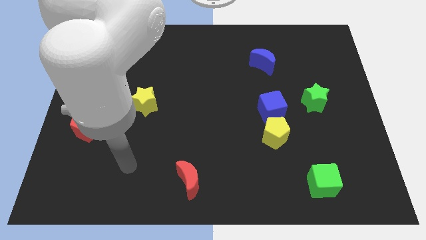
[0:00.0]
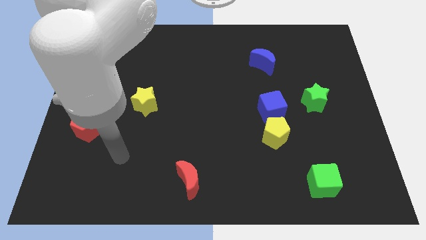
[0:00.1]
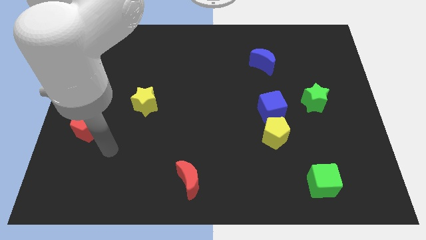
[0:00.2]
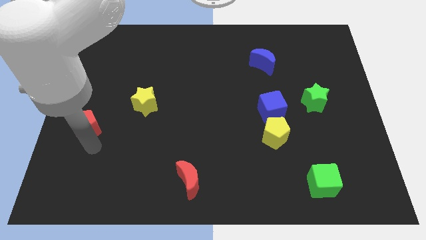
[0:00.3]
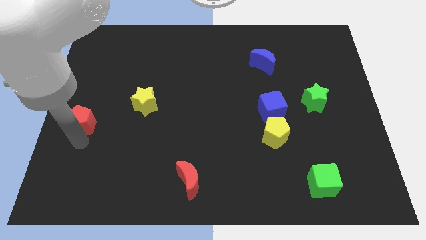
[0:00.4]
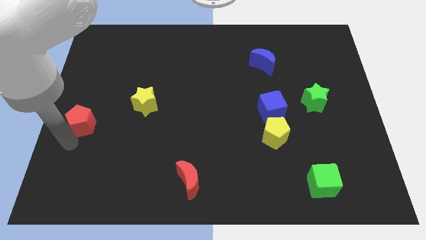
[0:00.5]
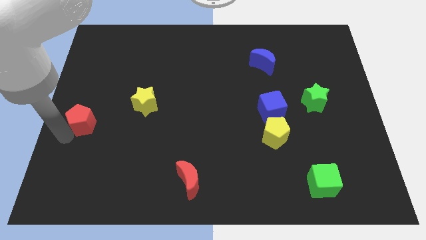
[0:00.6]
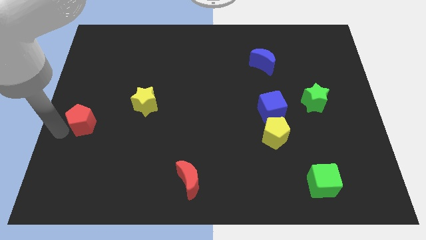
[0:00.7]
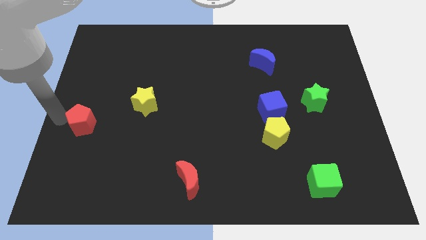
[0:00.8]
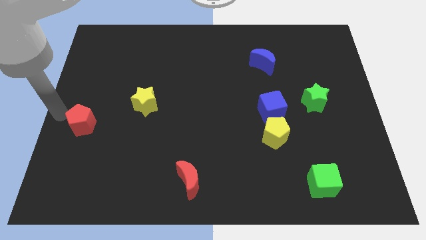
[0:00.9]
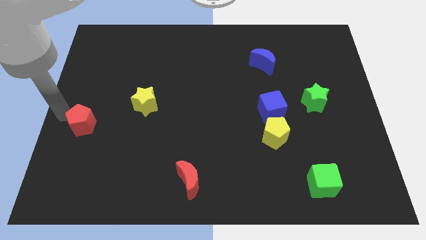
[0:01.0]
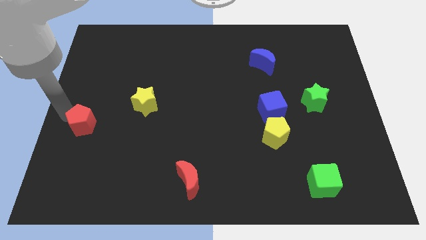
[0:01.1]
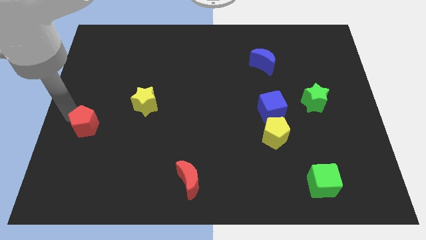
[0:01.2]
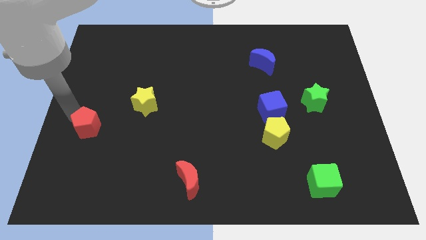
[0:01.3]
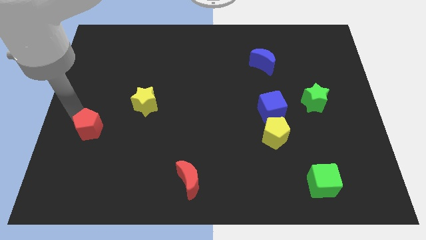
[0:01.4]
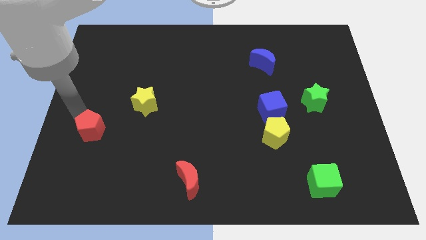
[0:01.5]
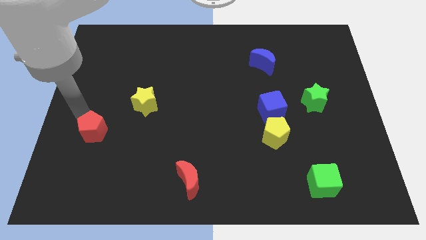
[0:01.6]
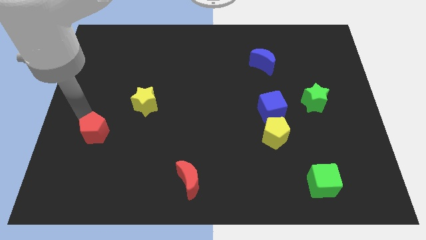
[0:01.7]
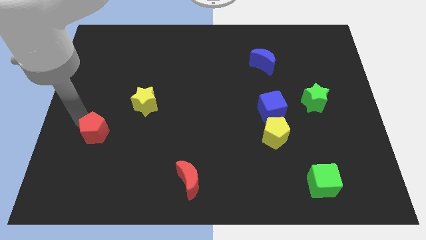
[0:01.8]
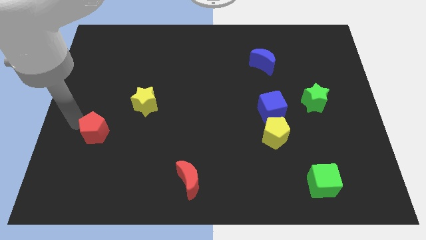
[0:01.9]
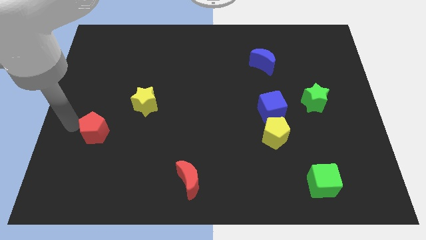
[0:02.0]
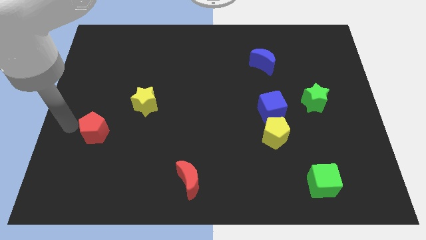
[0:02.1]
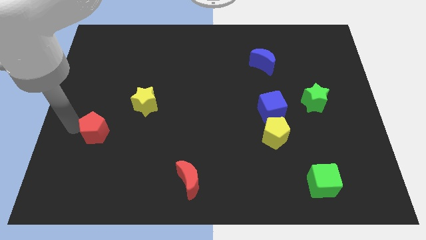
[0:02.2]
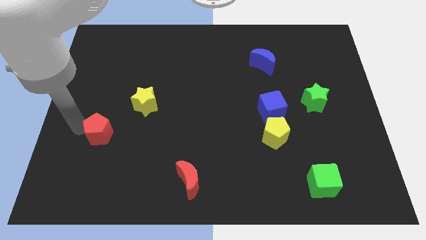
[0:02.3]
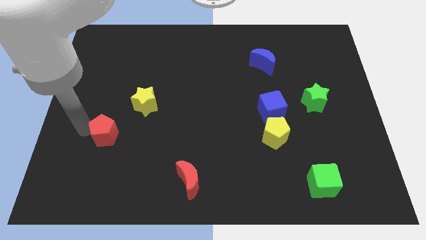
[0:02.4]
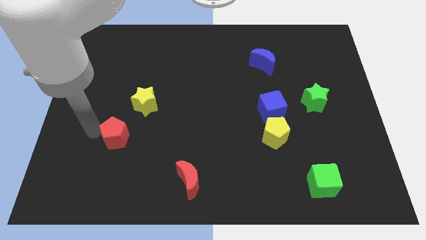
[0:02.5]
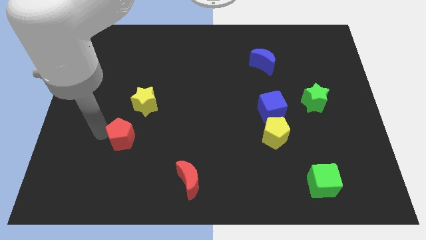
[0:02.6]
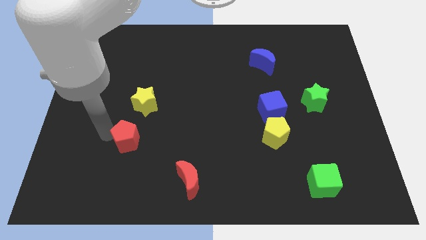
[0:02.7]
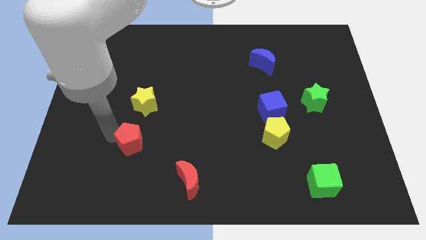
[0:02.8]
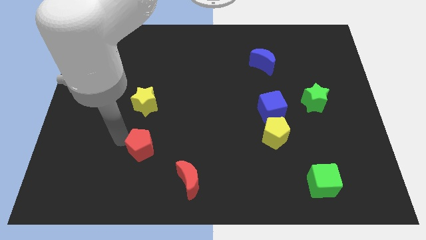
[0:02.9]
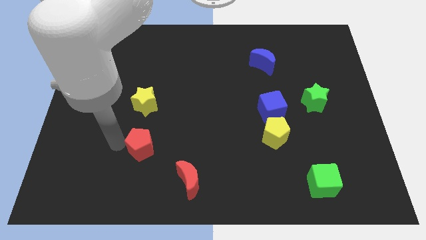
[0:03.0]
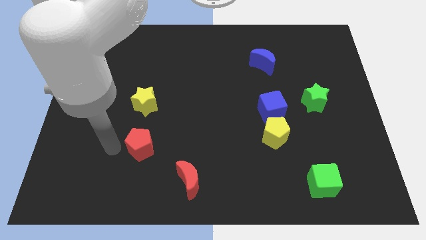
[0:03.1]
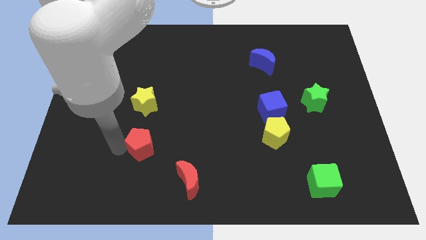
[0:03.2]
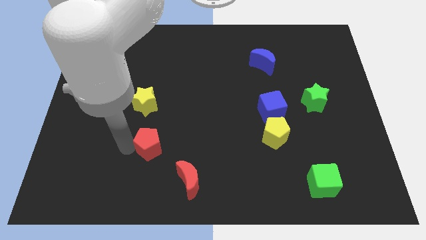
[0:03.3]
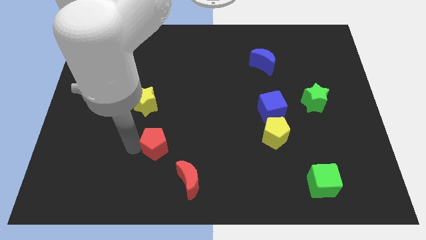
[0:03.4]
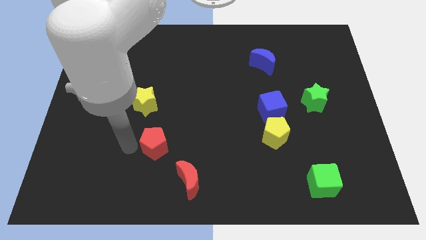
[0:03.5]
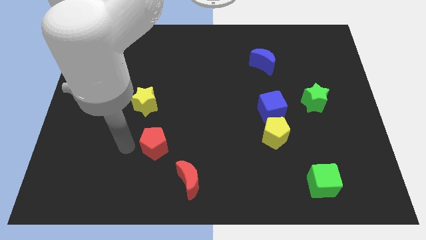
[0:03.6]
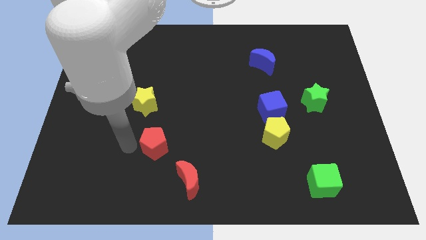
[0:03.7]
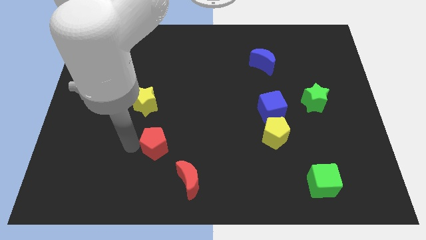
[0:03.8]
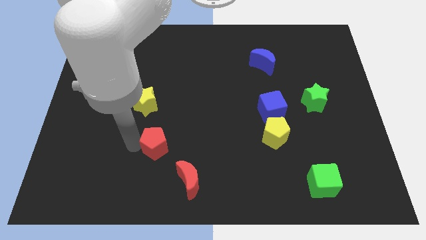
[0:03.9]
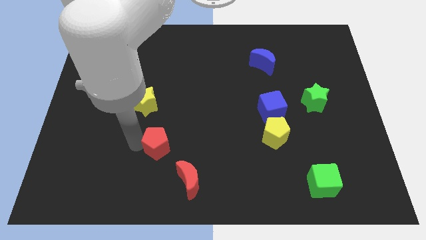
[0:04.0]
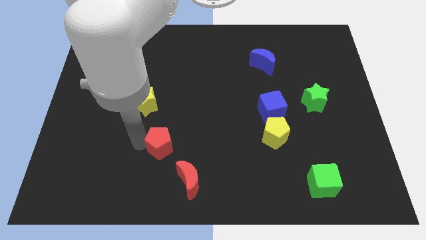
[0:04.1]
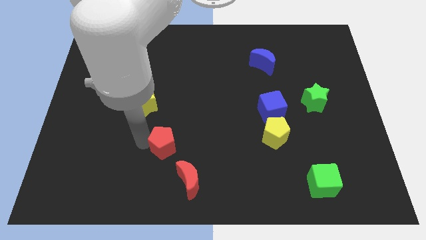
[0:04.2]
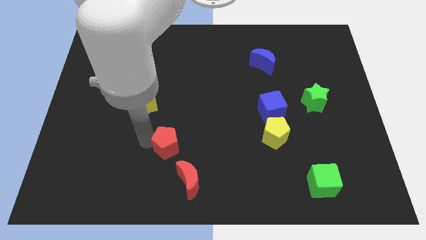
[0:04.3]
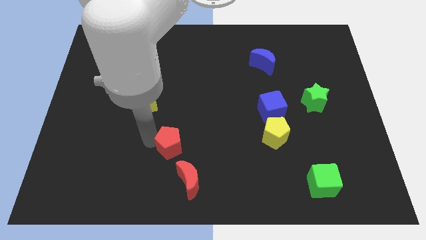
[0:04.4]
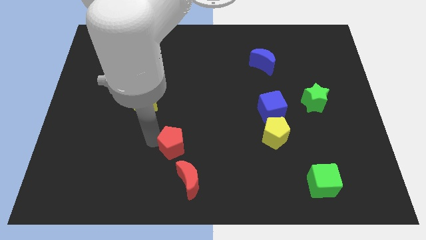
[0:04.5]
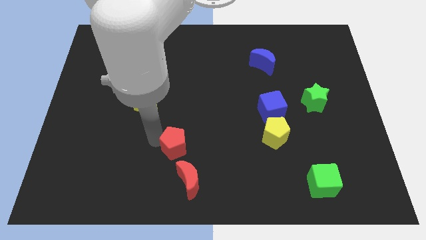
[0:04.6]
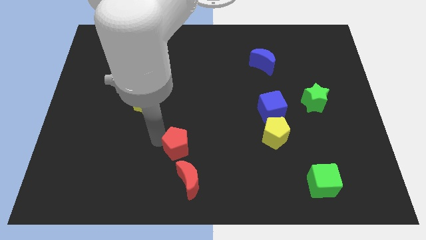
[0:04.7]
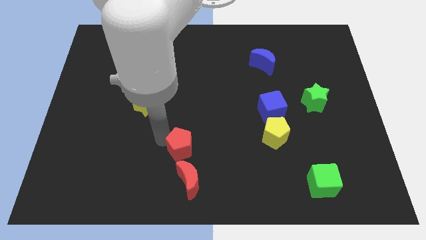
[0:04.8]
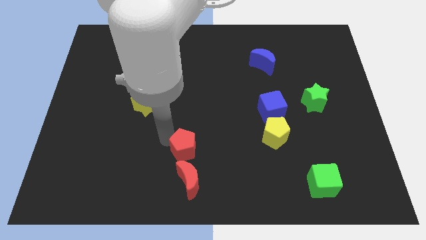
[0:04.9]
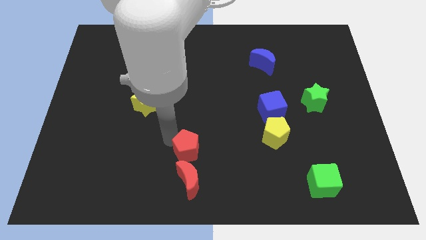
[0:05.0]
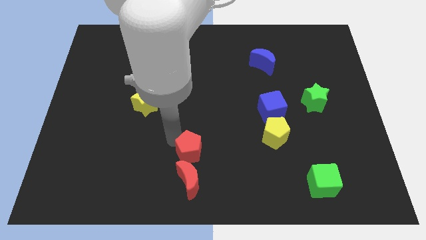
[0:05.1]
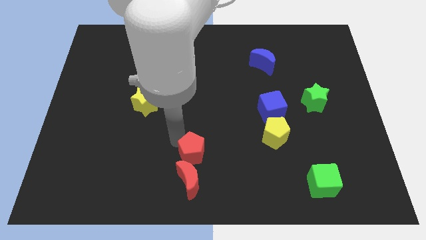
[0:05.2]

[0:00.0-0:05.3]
put the red pentagon to the top right of the red moon

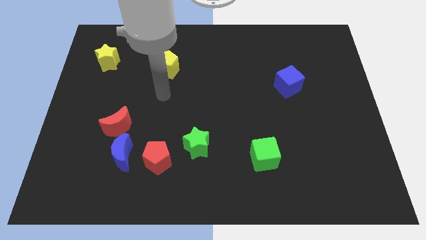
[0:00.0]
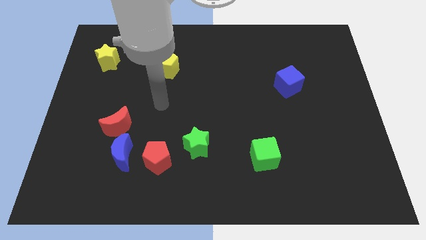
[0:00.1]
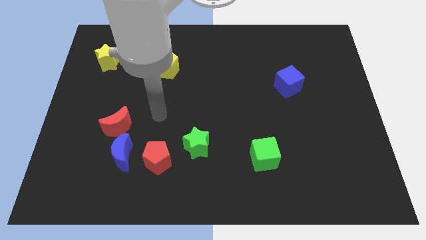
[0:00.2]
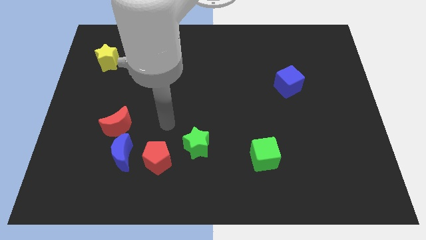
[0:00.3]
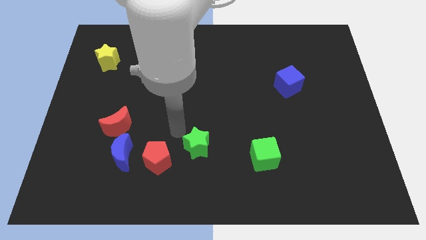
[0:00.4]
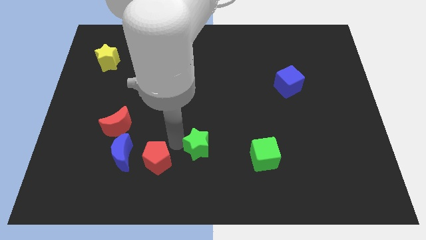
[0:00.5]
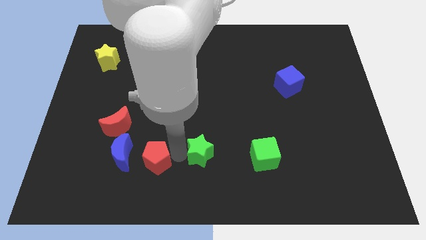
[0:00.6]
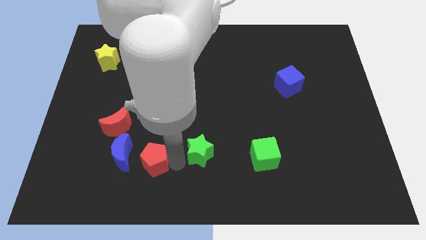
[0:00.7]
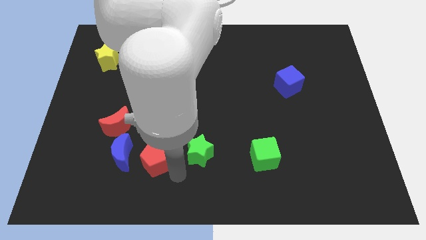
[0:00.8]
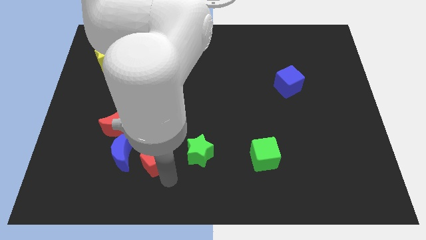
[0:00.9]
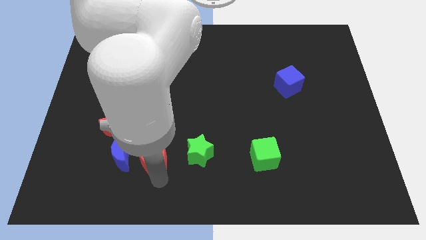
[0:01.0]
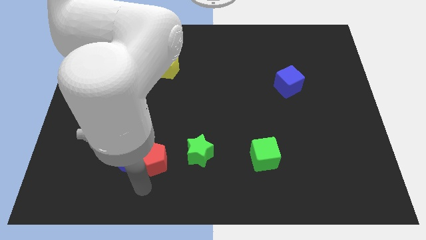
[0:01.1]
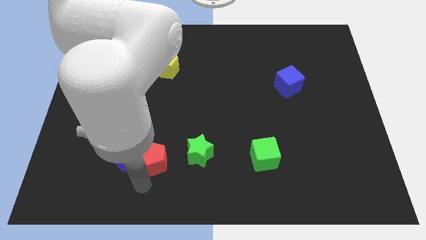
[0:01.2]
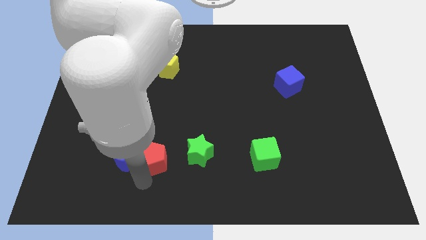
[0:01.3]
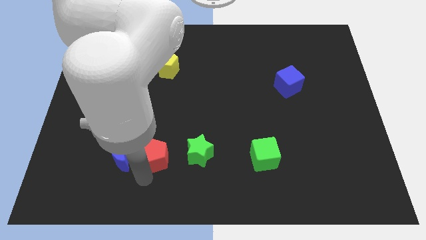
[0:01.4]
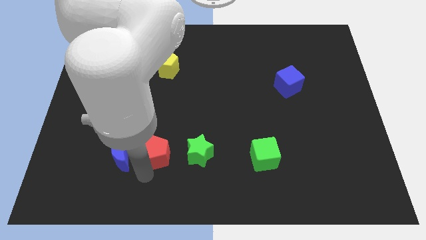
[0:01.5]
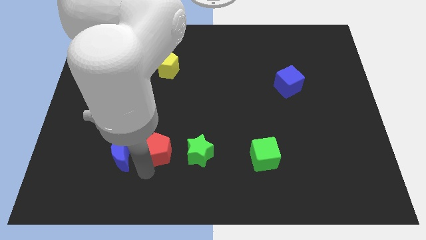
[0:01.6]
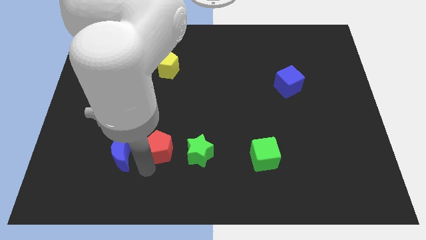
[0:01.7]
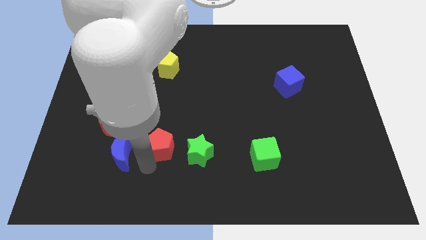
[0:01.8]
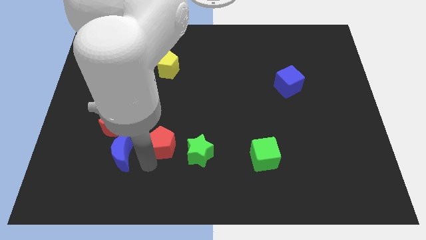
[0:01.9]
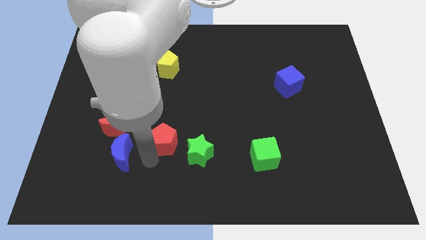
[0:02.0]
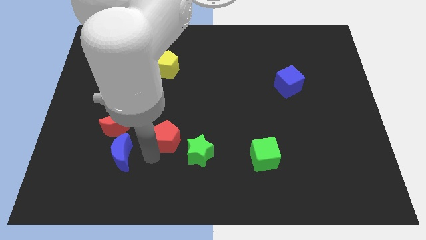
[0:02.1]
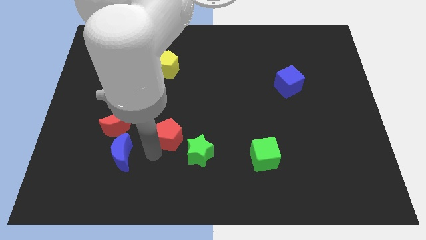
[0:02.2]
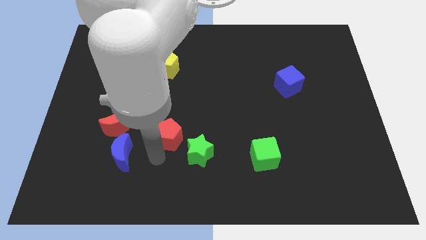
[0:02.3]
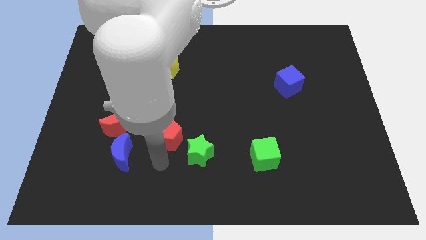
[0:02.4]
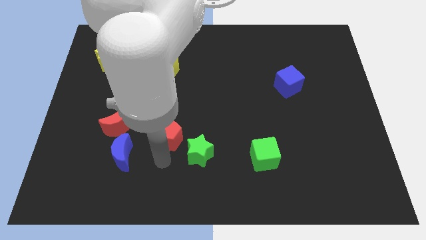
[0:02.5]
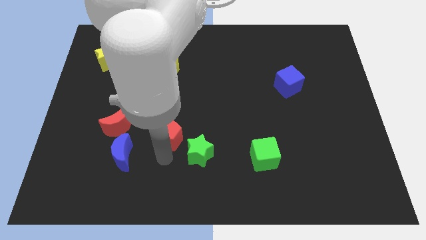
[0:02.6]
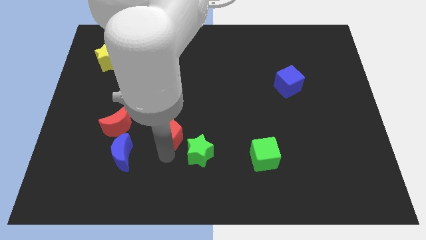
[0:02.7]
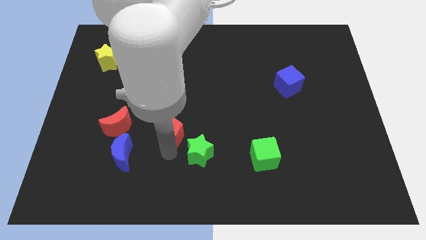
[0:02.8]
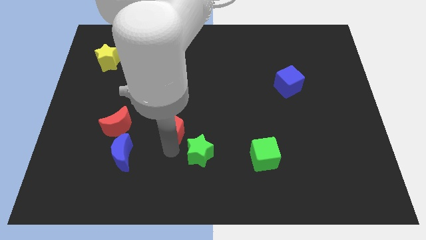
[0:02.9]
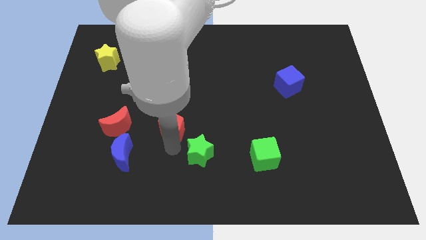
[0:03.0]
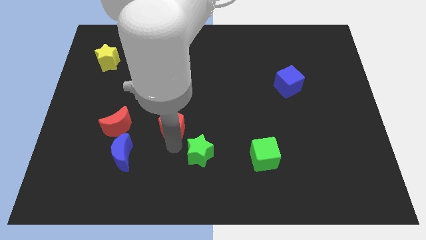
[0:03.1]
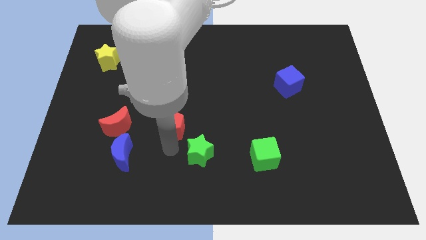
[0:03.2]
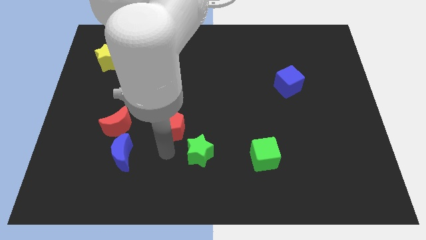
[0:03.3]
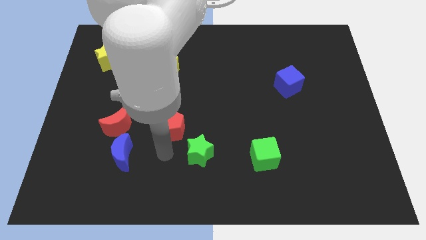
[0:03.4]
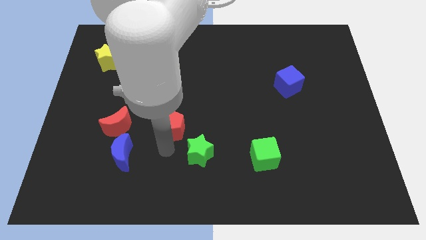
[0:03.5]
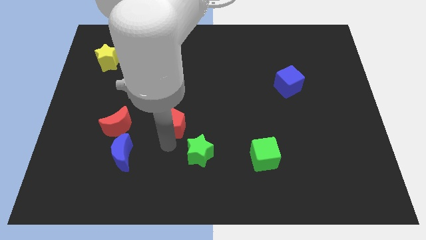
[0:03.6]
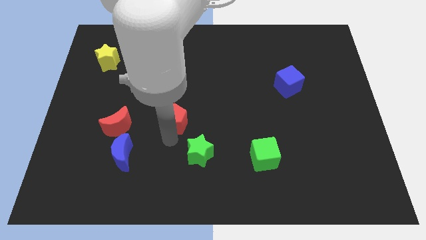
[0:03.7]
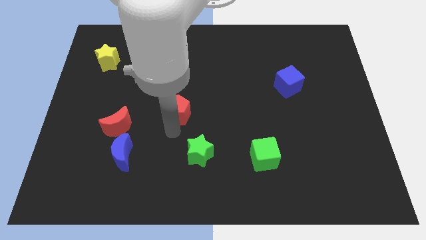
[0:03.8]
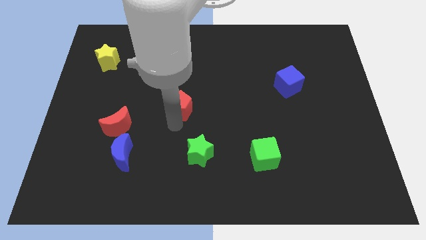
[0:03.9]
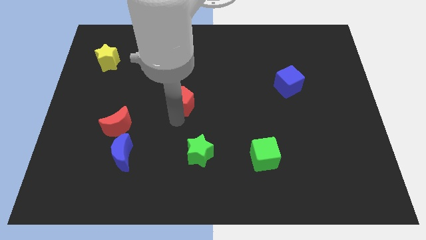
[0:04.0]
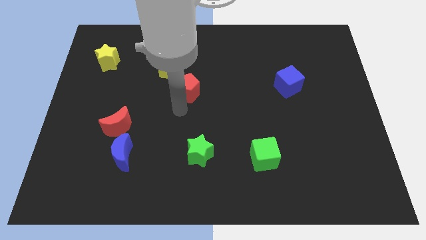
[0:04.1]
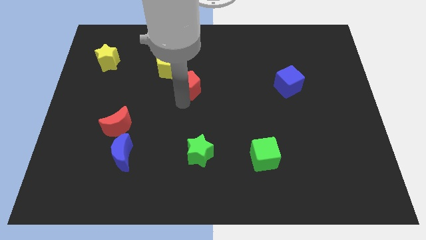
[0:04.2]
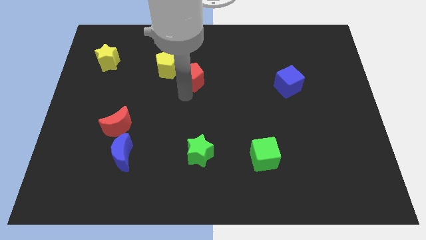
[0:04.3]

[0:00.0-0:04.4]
slide the red pentagon to the right side of the yellow pentagon
